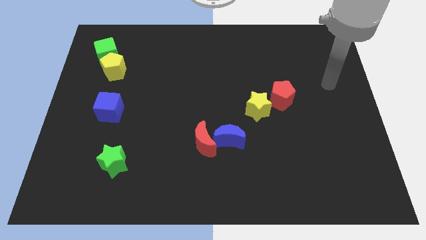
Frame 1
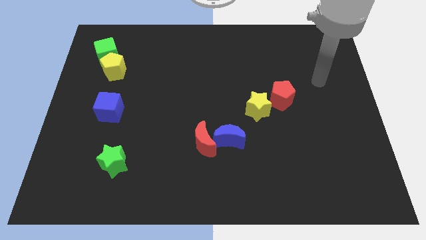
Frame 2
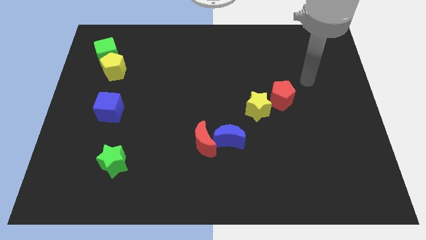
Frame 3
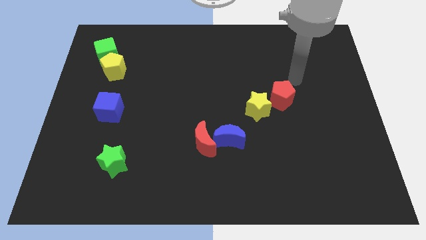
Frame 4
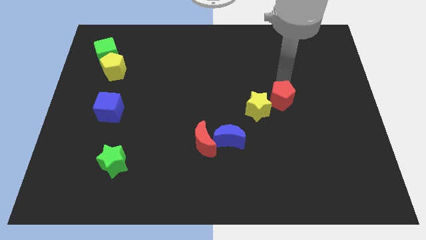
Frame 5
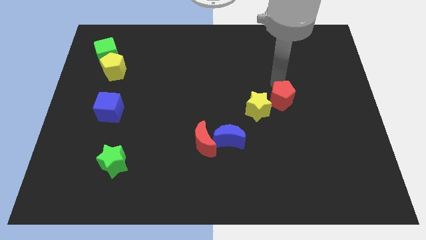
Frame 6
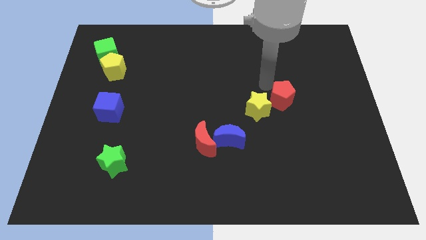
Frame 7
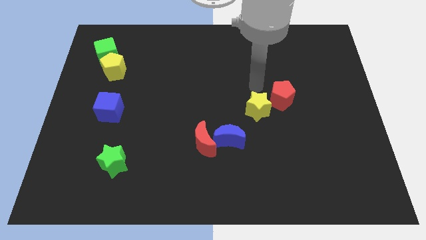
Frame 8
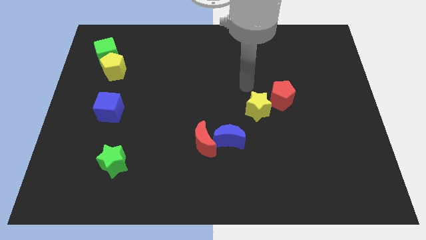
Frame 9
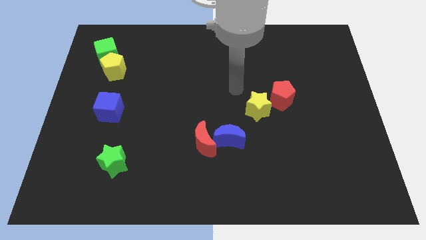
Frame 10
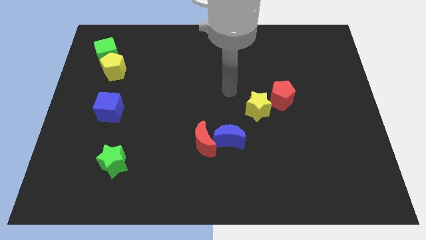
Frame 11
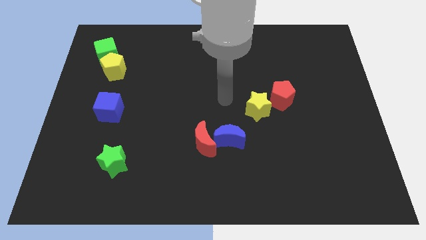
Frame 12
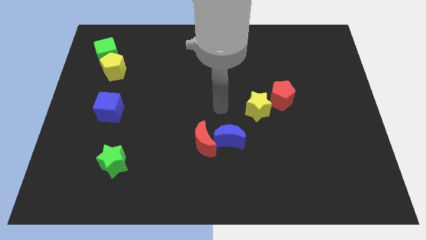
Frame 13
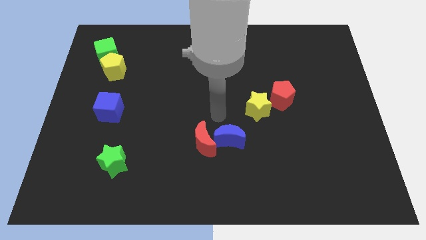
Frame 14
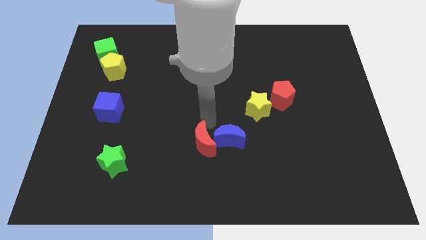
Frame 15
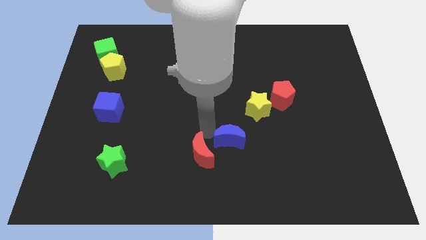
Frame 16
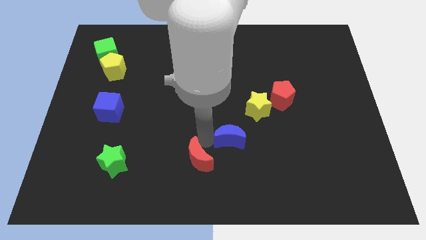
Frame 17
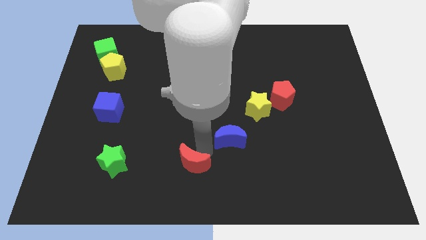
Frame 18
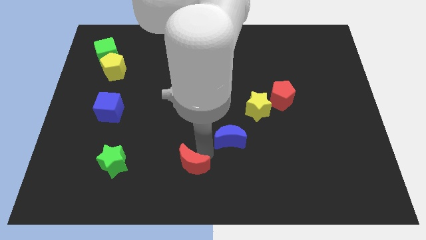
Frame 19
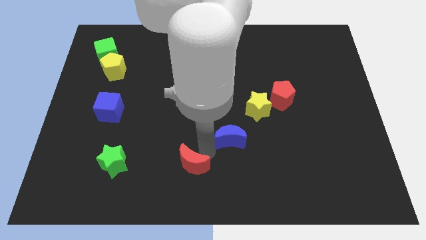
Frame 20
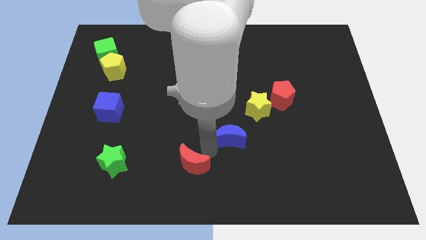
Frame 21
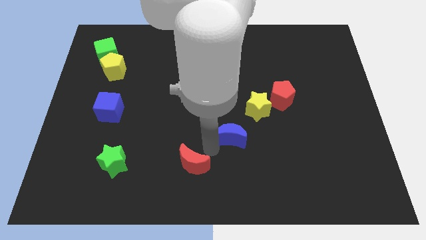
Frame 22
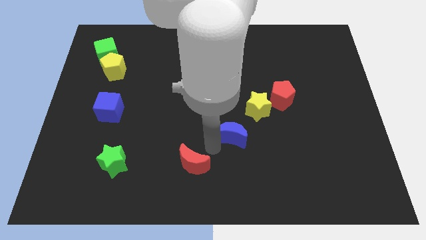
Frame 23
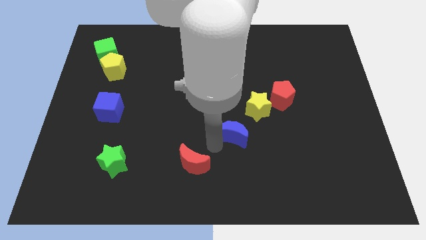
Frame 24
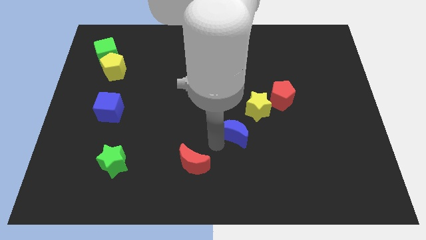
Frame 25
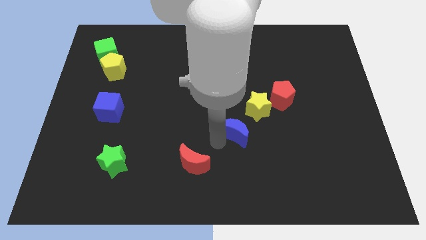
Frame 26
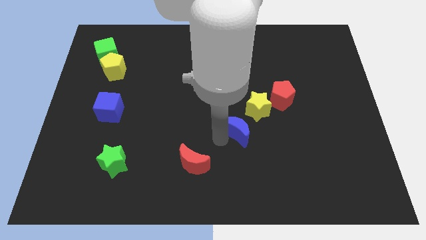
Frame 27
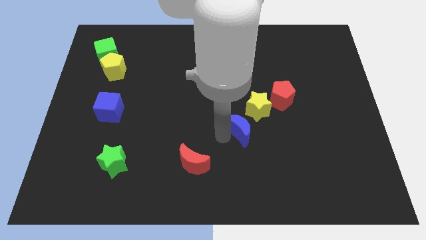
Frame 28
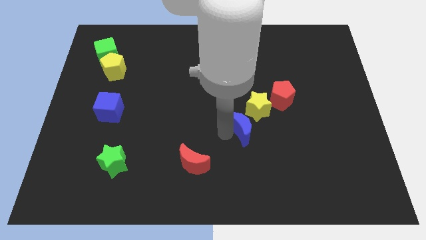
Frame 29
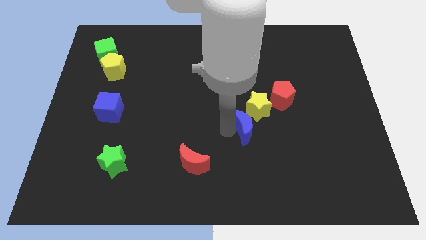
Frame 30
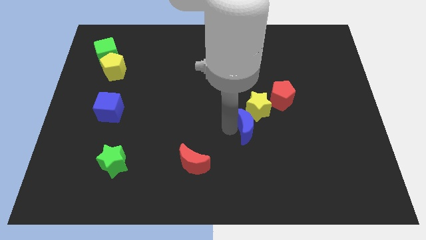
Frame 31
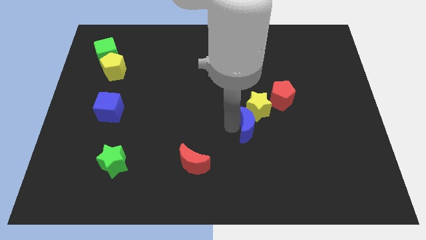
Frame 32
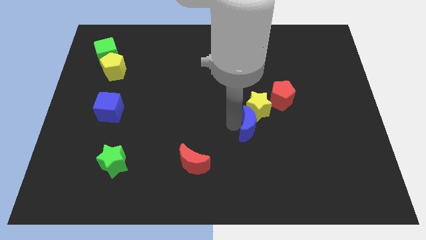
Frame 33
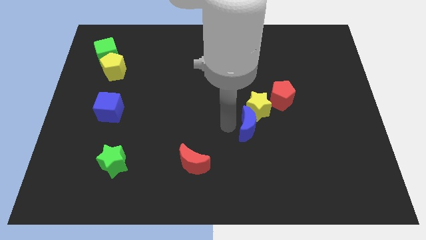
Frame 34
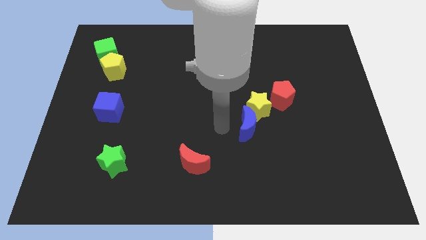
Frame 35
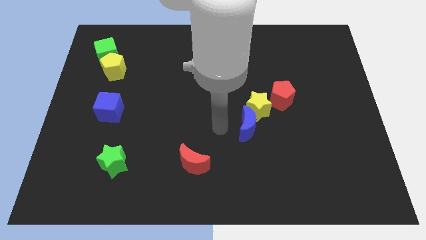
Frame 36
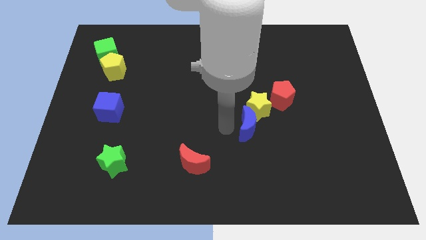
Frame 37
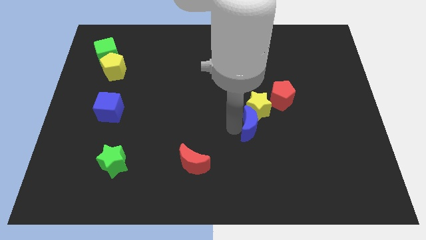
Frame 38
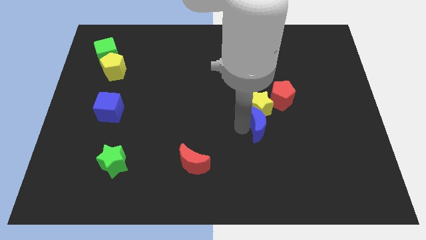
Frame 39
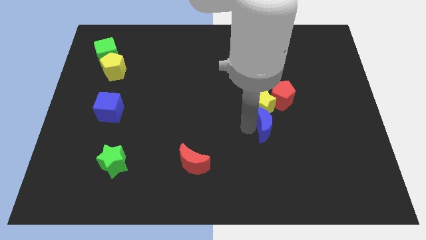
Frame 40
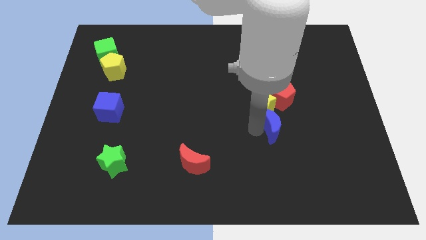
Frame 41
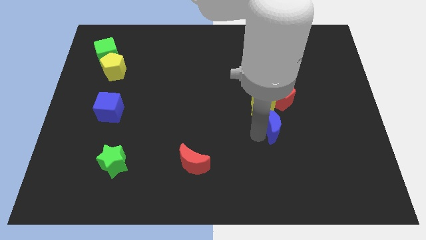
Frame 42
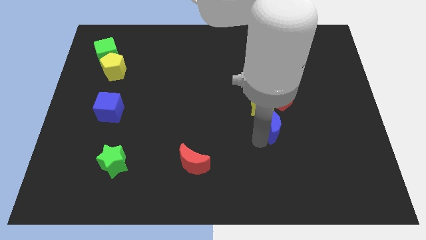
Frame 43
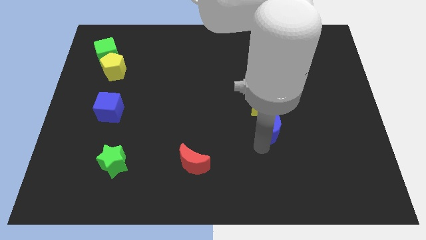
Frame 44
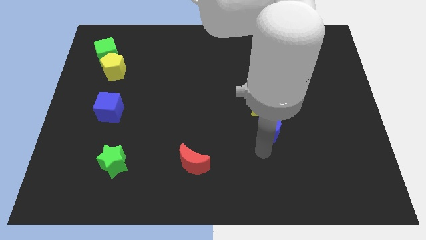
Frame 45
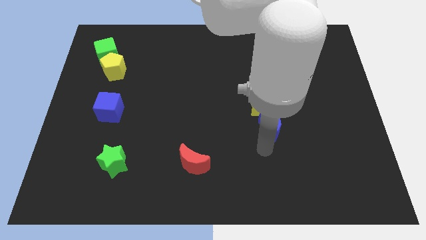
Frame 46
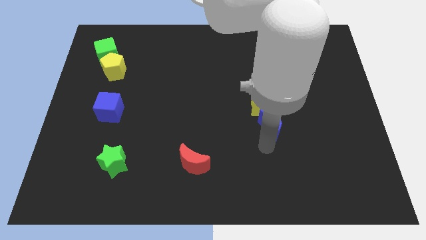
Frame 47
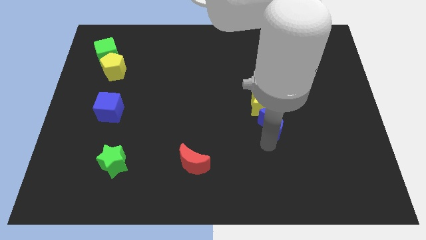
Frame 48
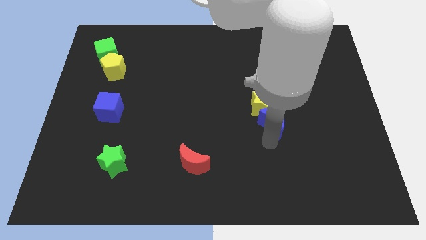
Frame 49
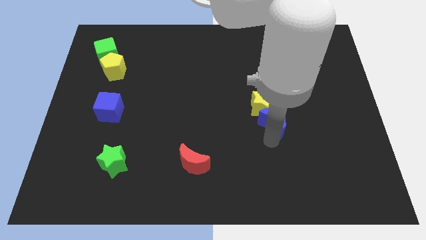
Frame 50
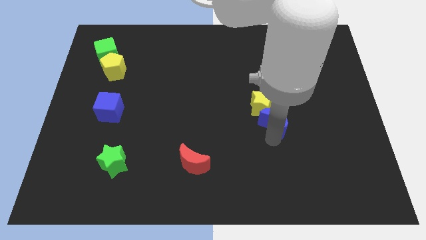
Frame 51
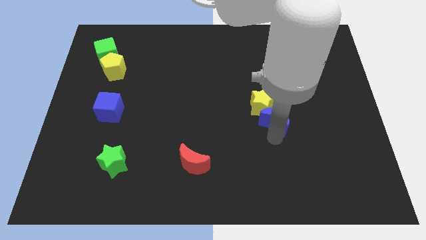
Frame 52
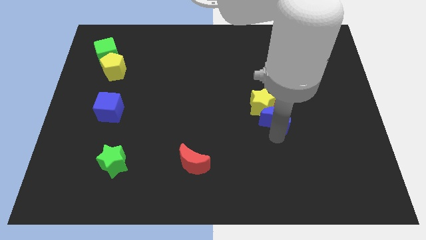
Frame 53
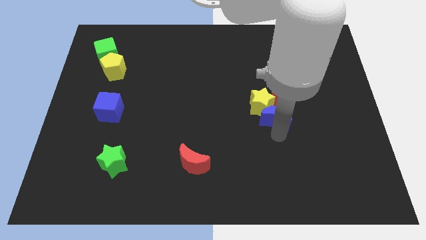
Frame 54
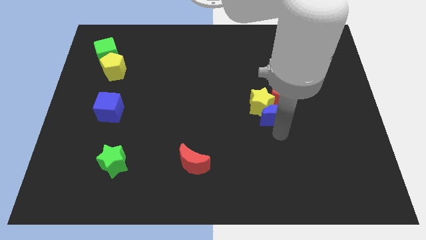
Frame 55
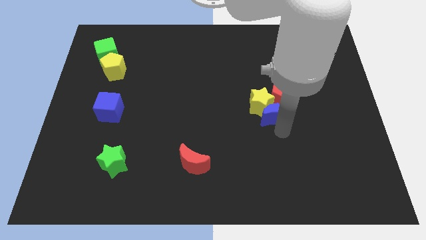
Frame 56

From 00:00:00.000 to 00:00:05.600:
move the blue moon towards the red pentagon

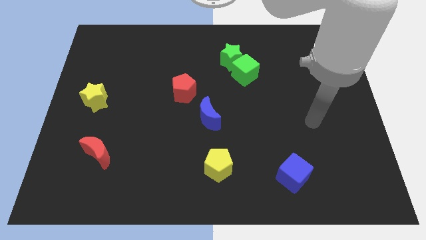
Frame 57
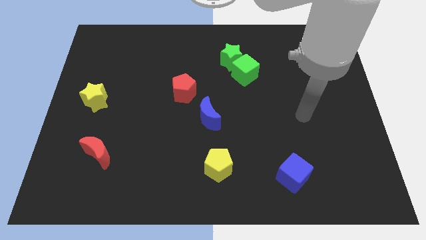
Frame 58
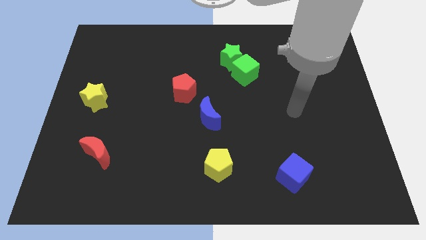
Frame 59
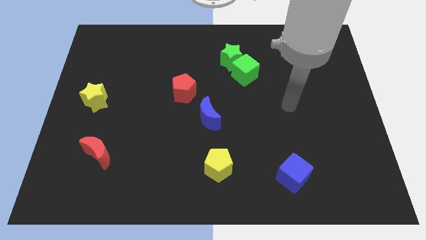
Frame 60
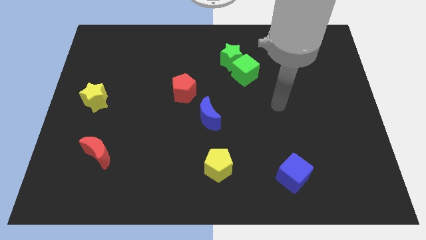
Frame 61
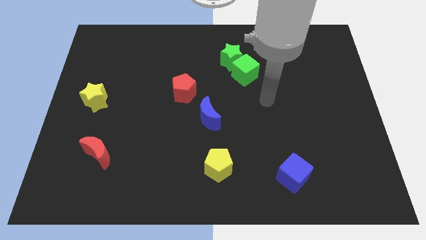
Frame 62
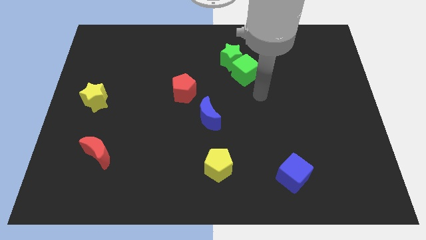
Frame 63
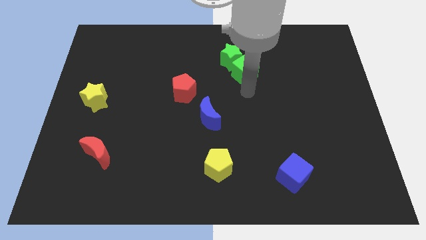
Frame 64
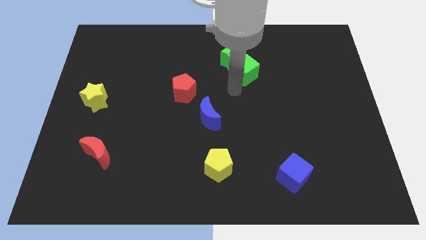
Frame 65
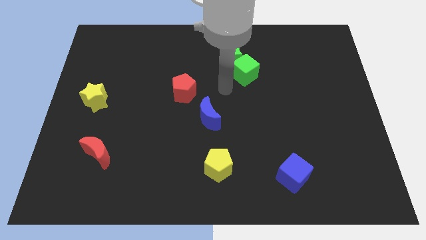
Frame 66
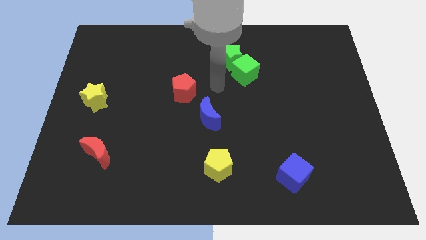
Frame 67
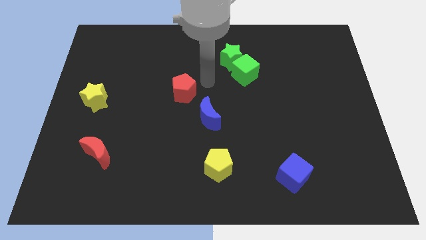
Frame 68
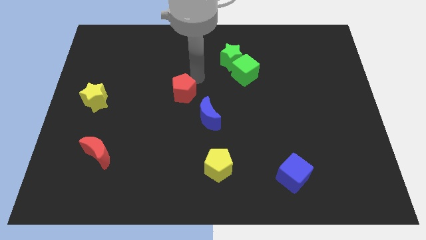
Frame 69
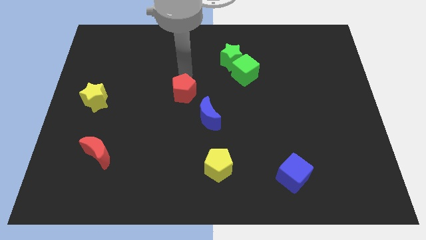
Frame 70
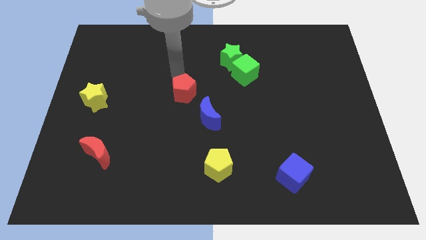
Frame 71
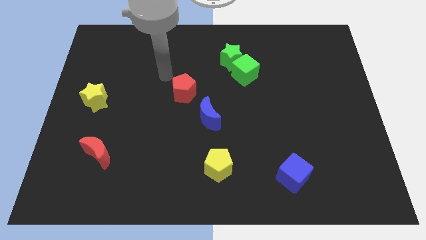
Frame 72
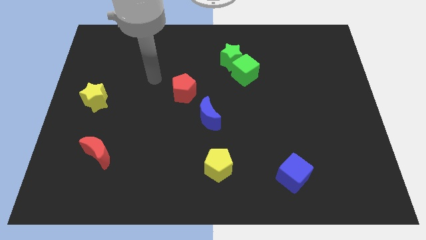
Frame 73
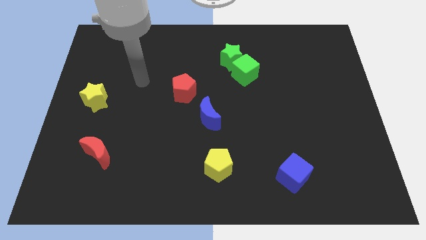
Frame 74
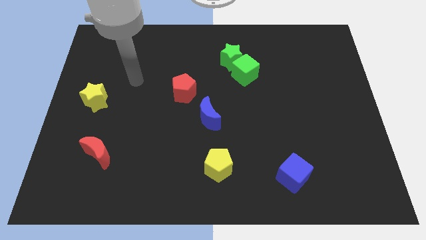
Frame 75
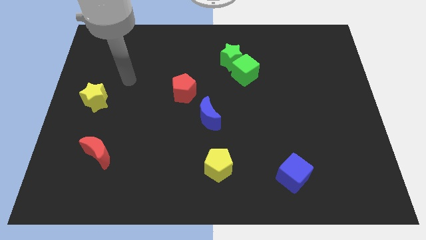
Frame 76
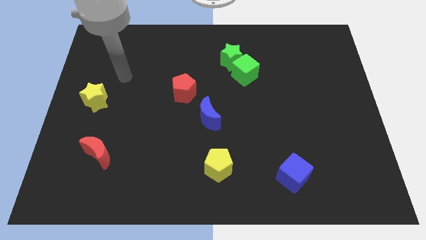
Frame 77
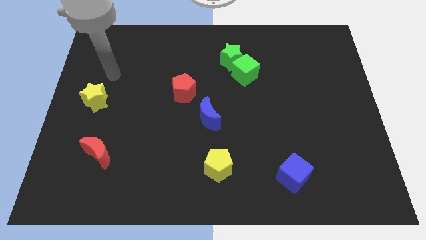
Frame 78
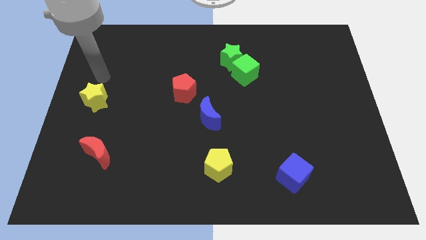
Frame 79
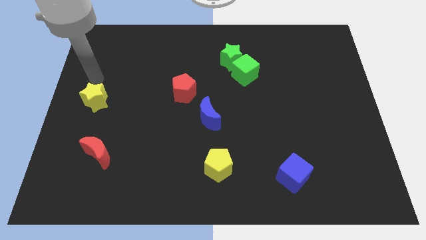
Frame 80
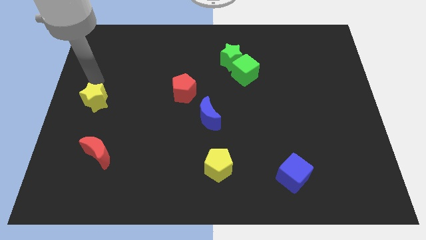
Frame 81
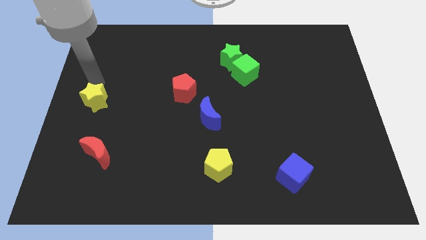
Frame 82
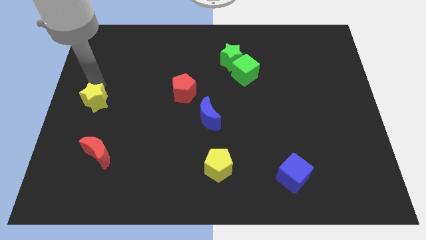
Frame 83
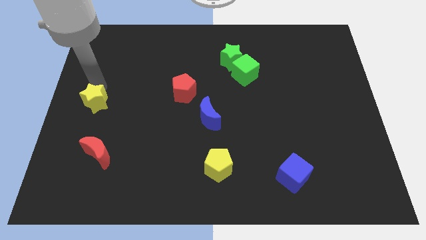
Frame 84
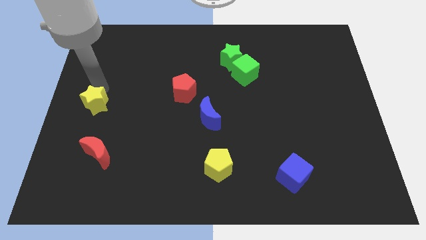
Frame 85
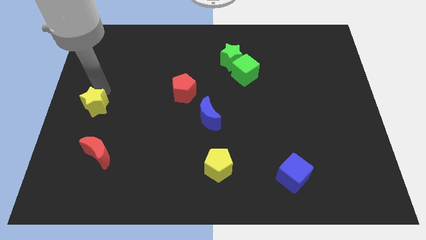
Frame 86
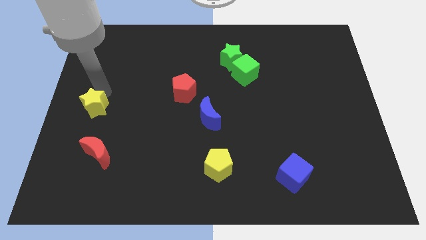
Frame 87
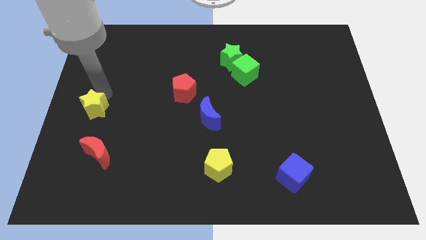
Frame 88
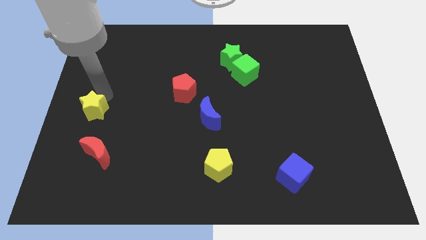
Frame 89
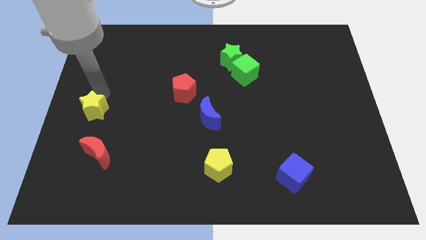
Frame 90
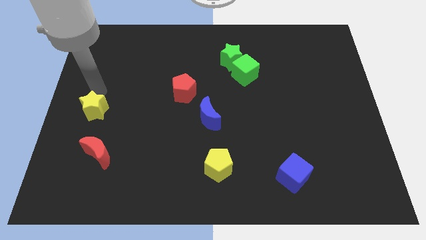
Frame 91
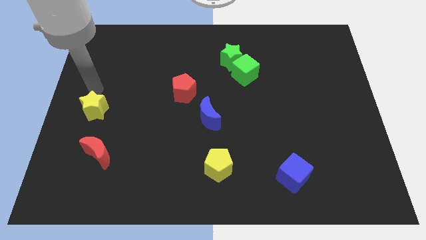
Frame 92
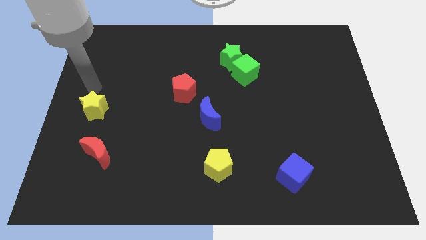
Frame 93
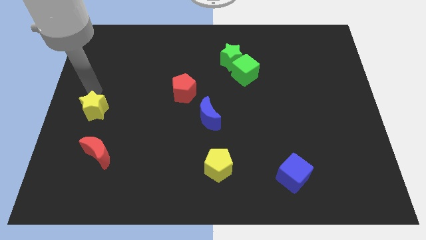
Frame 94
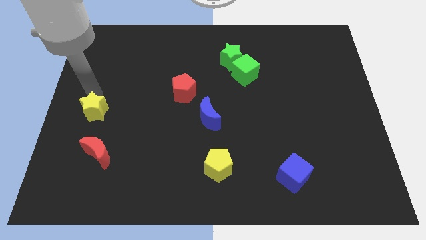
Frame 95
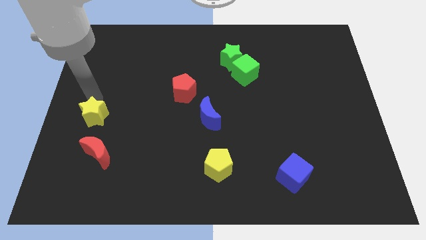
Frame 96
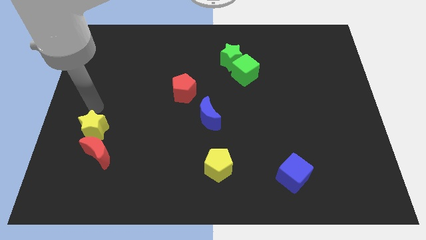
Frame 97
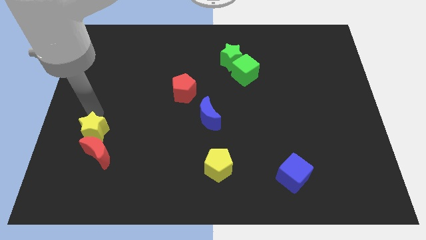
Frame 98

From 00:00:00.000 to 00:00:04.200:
put the yellow star towards the red moon
